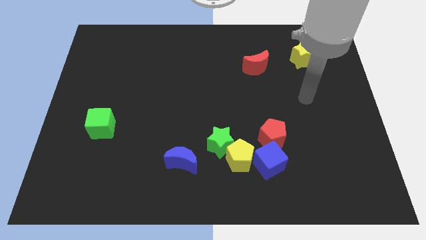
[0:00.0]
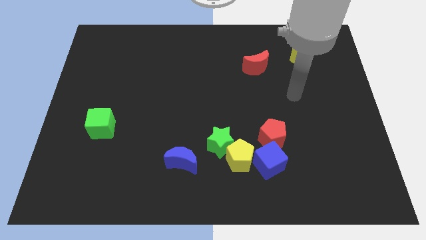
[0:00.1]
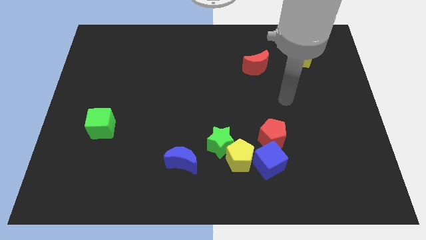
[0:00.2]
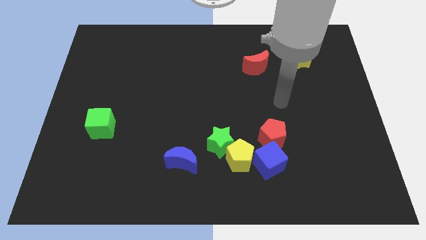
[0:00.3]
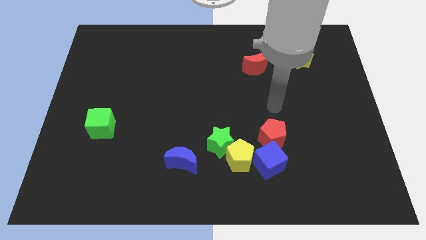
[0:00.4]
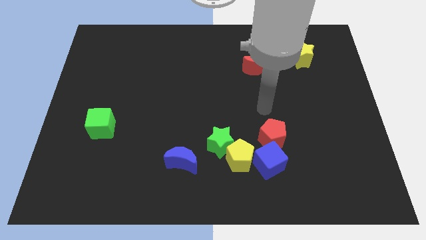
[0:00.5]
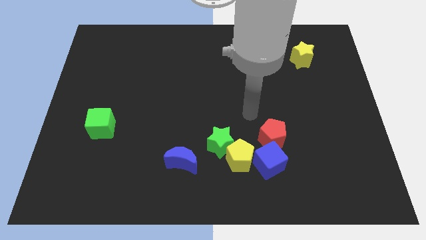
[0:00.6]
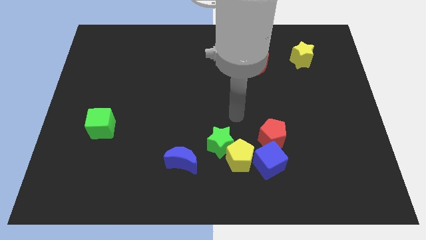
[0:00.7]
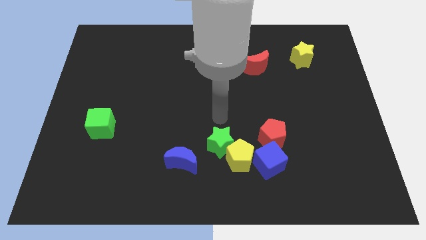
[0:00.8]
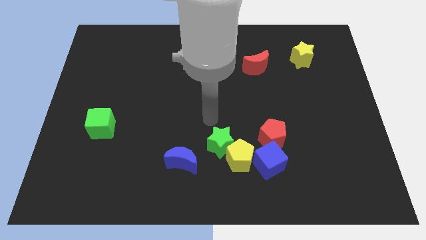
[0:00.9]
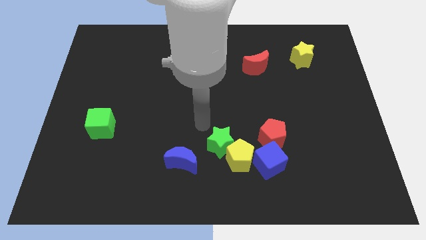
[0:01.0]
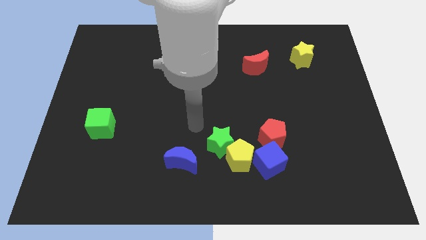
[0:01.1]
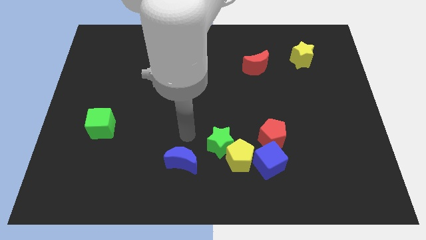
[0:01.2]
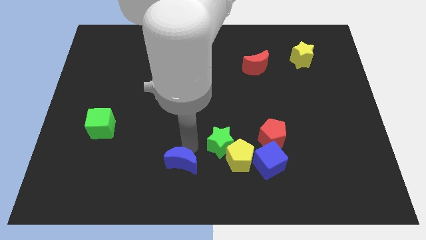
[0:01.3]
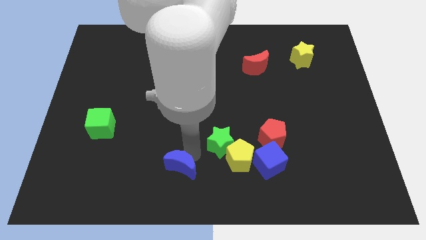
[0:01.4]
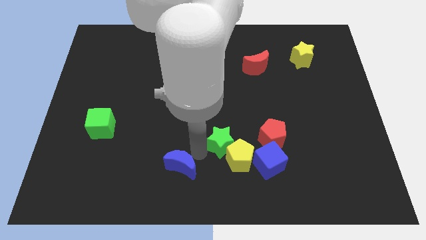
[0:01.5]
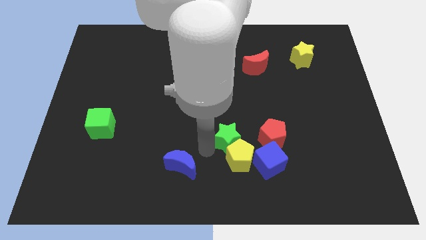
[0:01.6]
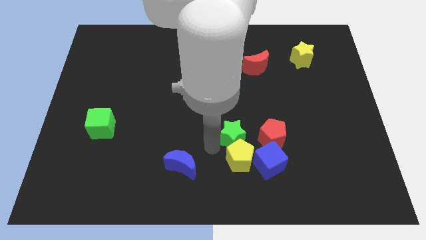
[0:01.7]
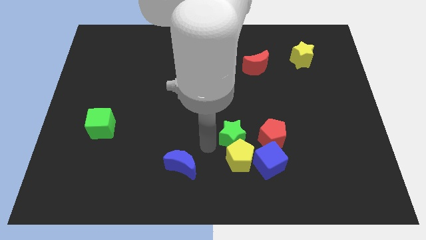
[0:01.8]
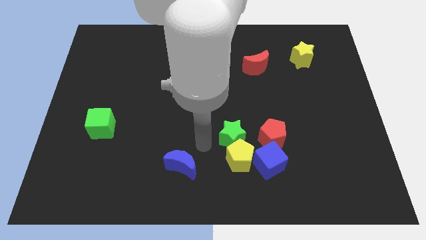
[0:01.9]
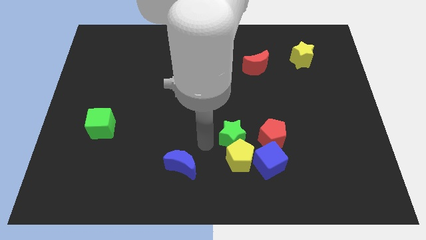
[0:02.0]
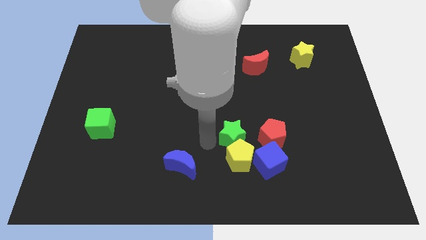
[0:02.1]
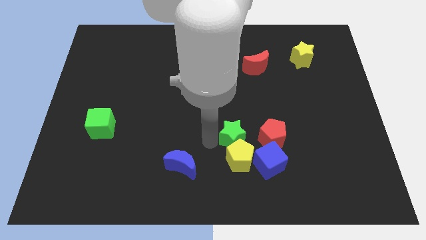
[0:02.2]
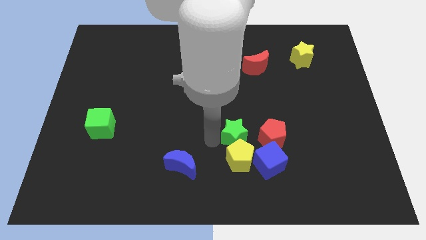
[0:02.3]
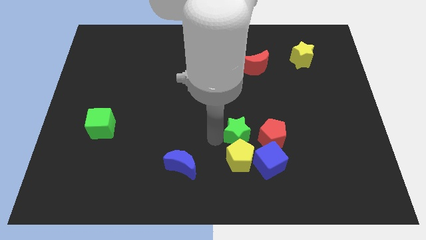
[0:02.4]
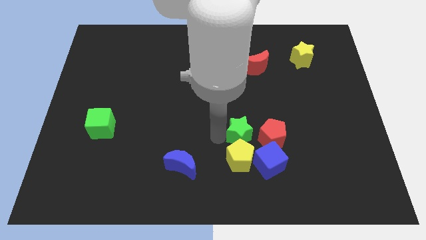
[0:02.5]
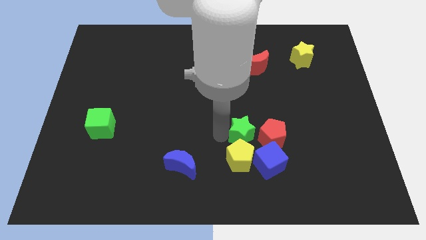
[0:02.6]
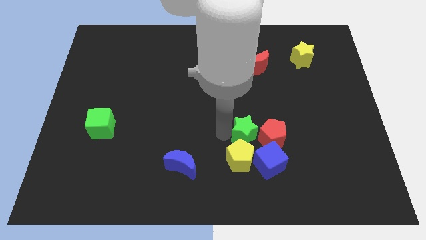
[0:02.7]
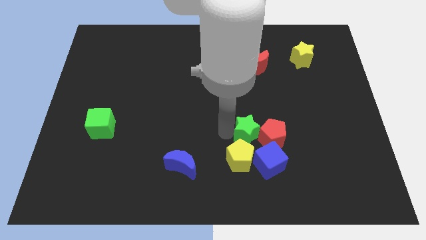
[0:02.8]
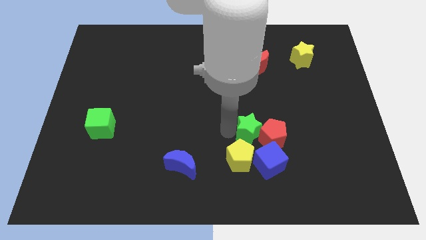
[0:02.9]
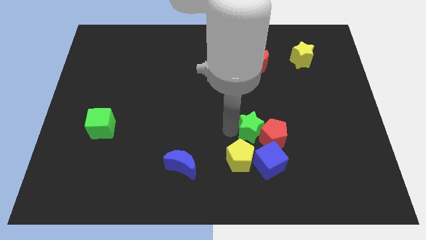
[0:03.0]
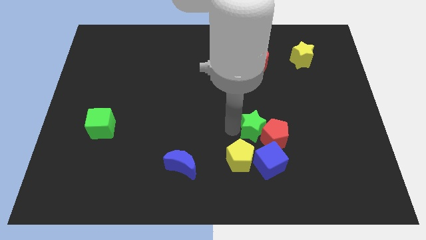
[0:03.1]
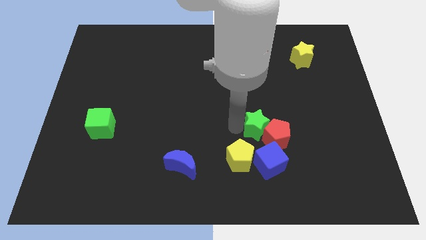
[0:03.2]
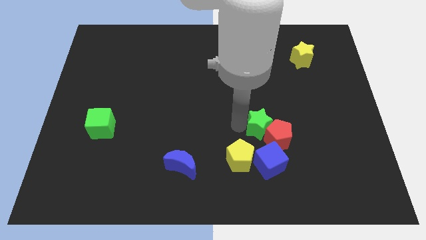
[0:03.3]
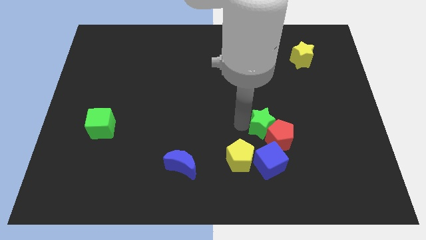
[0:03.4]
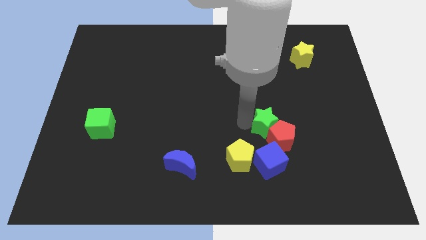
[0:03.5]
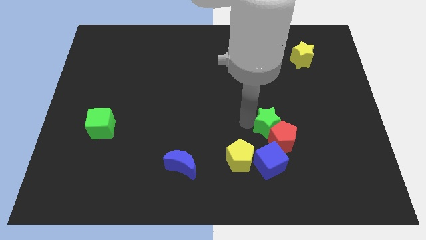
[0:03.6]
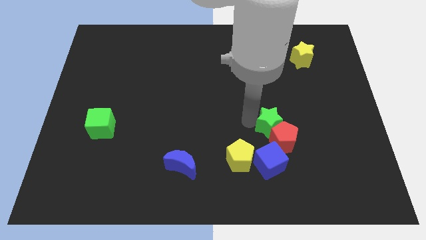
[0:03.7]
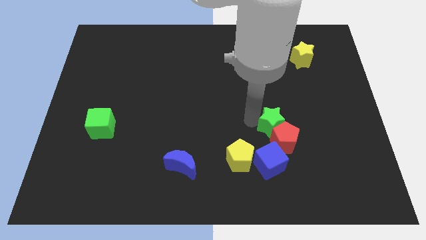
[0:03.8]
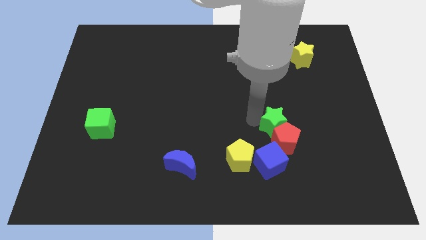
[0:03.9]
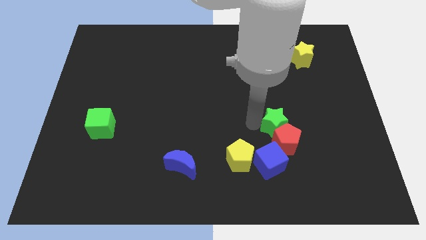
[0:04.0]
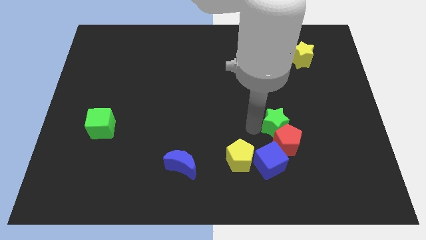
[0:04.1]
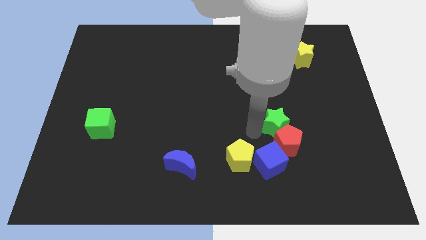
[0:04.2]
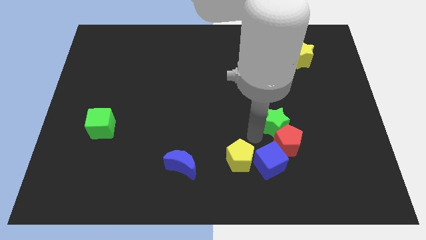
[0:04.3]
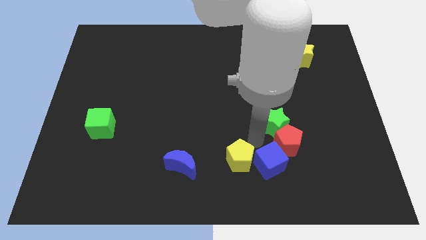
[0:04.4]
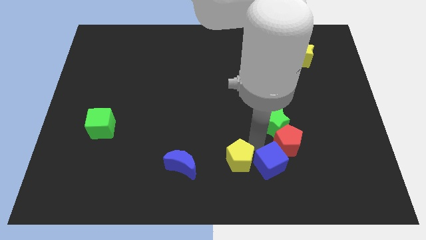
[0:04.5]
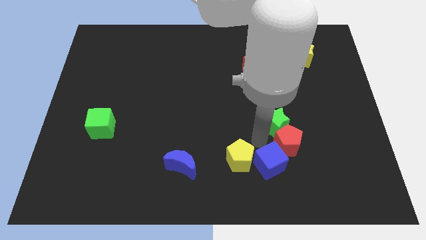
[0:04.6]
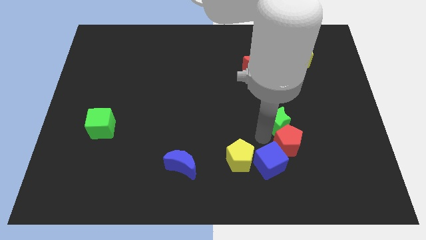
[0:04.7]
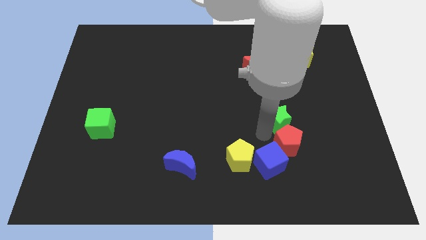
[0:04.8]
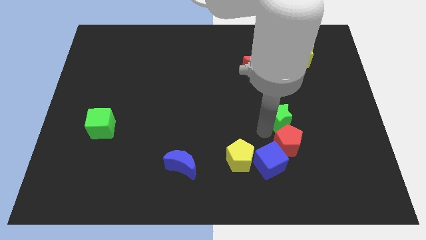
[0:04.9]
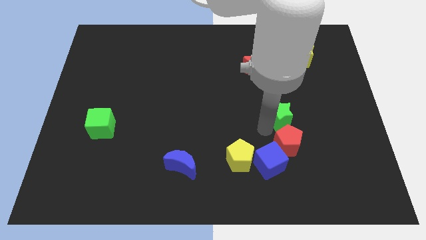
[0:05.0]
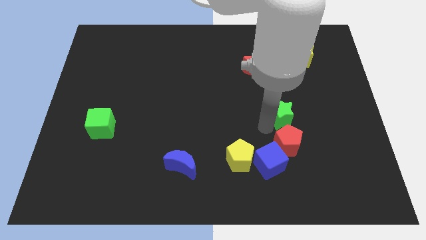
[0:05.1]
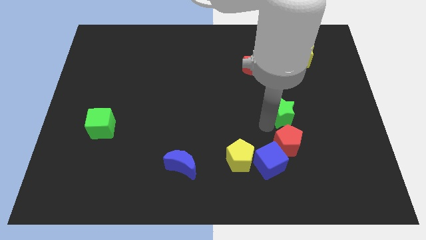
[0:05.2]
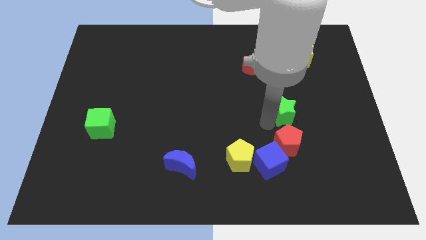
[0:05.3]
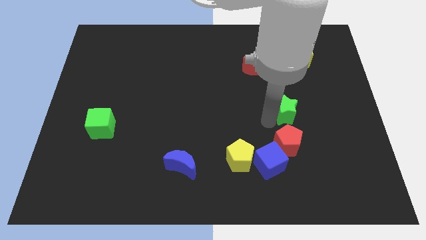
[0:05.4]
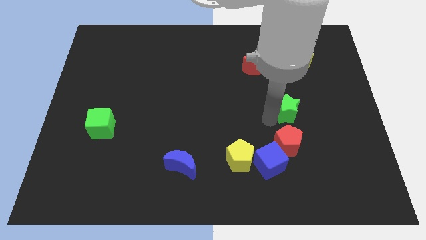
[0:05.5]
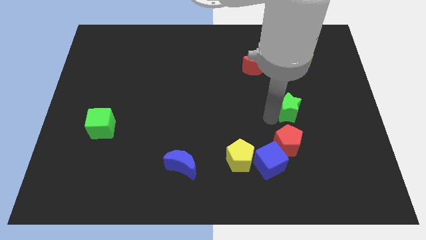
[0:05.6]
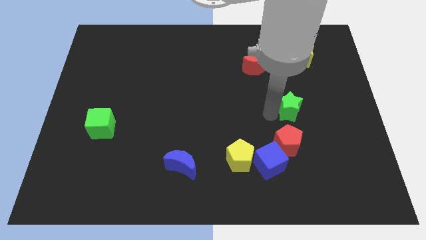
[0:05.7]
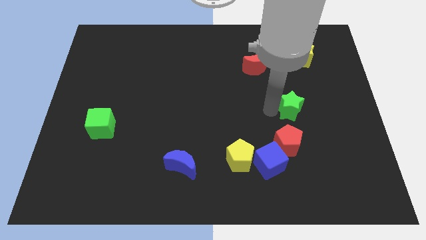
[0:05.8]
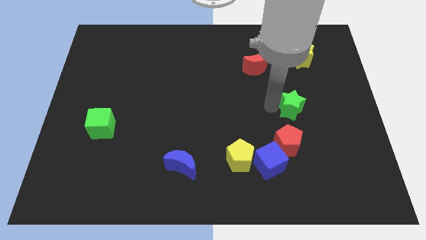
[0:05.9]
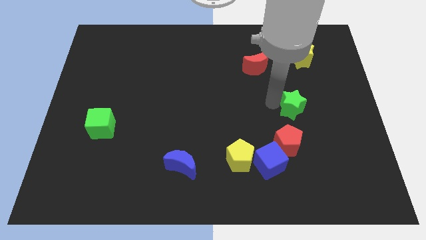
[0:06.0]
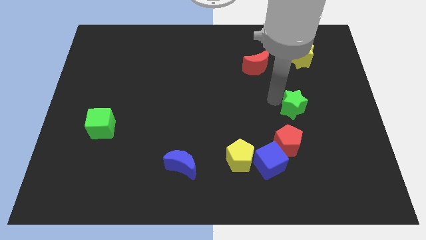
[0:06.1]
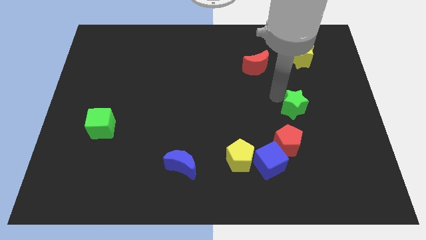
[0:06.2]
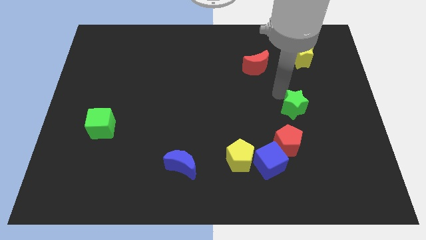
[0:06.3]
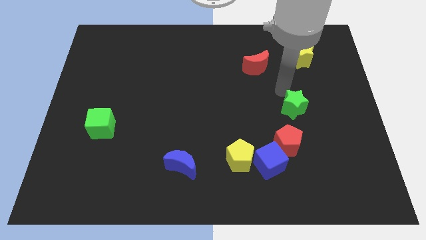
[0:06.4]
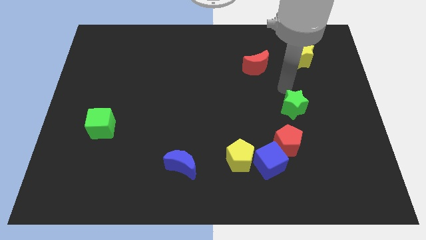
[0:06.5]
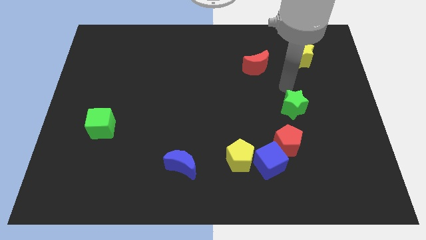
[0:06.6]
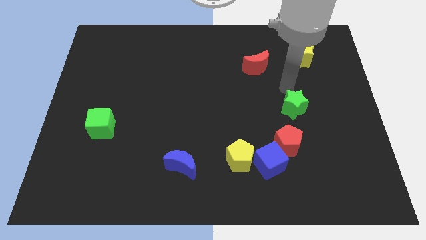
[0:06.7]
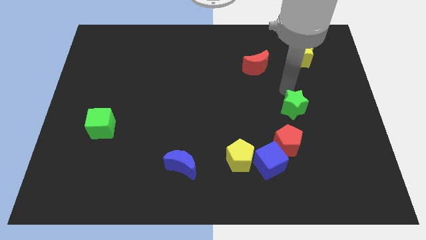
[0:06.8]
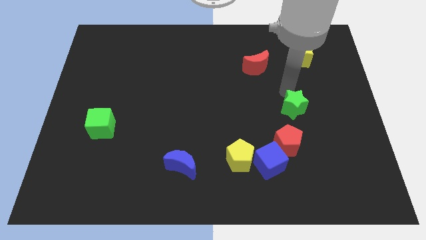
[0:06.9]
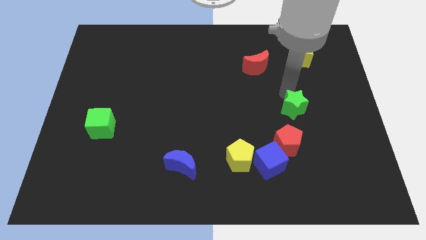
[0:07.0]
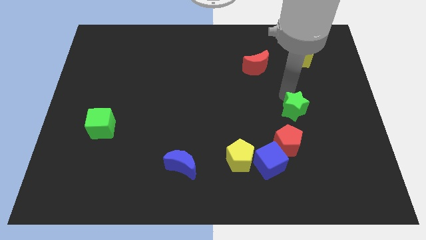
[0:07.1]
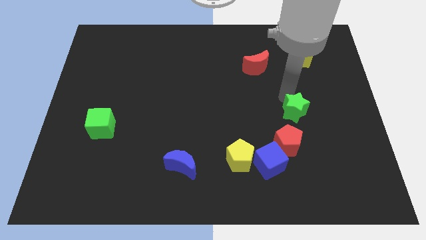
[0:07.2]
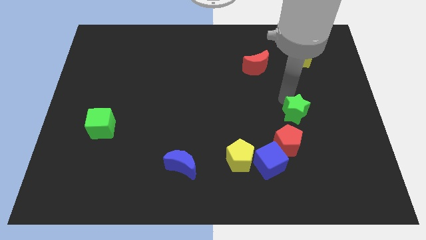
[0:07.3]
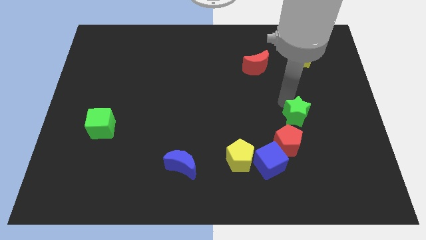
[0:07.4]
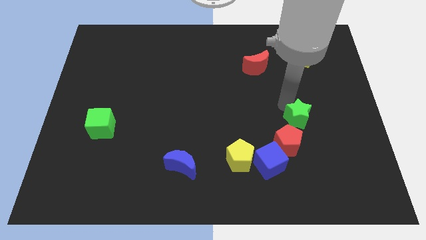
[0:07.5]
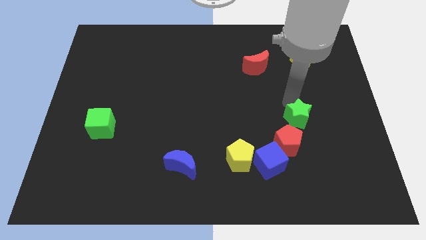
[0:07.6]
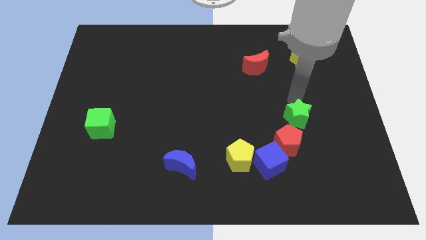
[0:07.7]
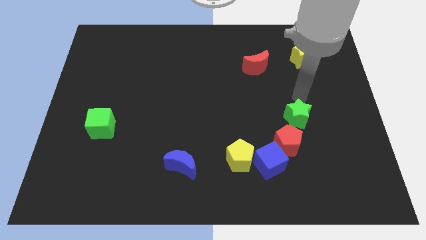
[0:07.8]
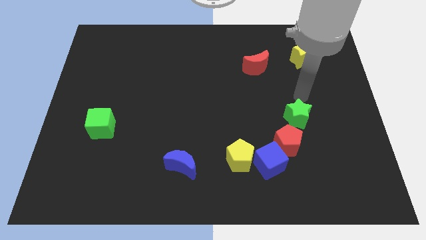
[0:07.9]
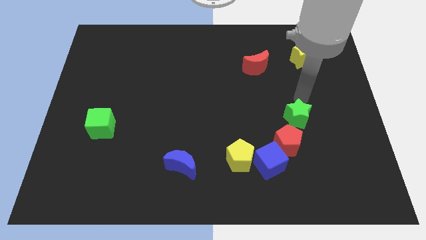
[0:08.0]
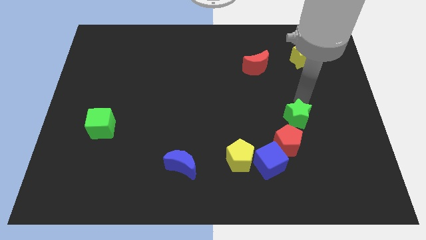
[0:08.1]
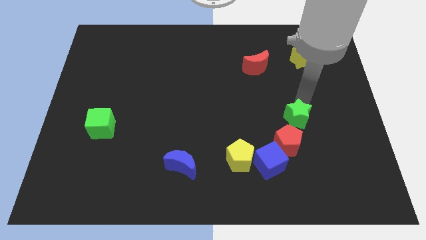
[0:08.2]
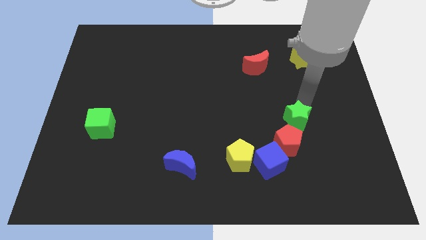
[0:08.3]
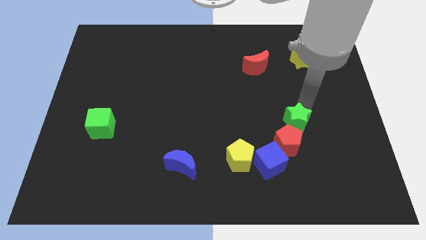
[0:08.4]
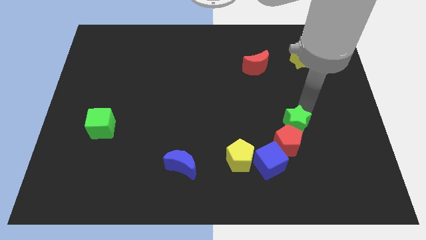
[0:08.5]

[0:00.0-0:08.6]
slide the green star to the top right side of the blue cube
